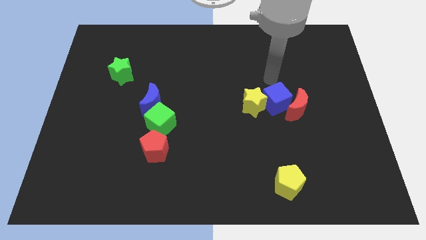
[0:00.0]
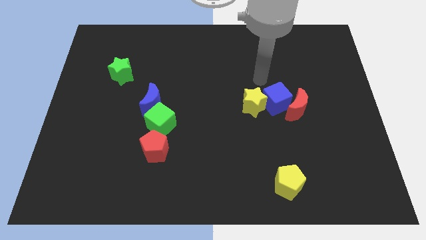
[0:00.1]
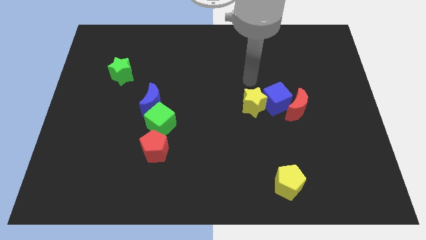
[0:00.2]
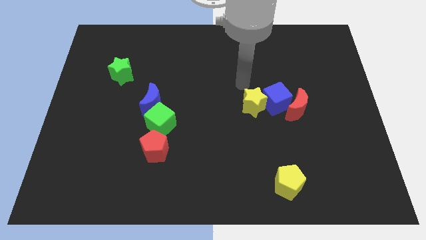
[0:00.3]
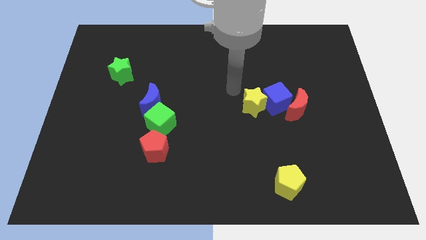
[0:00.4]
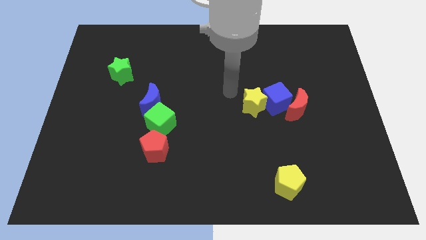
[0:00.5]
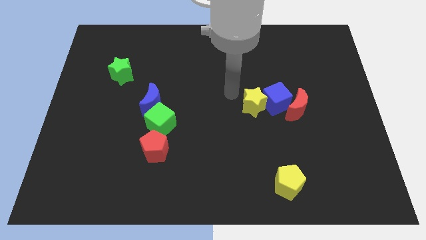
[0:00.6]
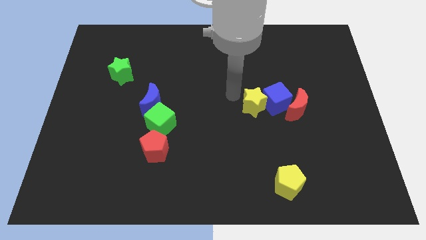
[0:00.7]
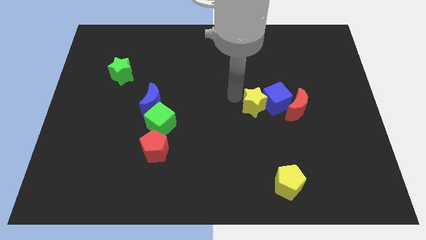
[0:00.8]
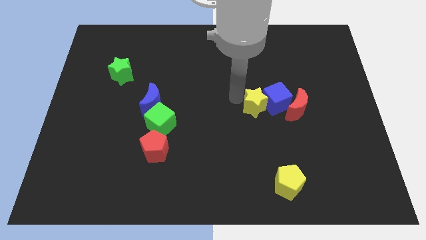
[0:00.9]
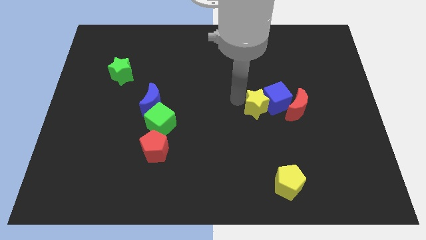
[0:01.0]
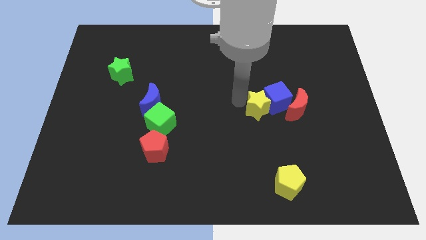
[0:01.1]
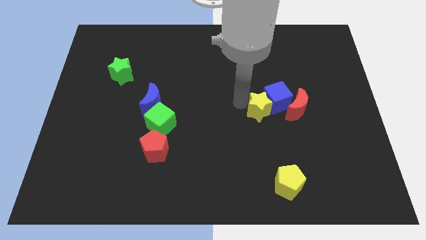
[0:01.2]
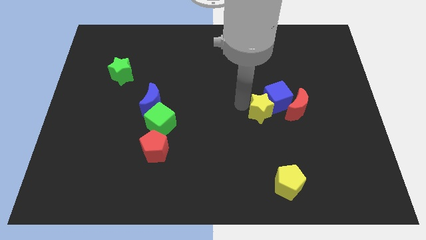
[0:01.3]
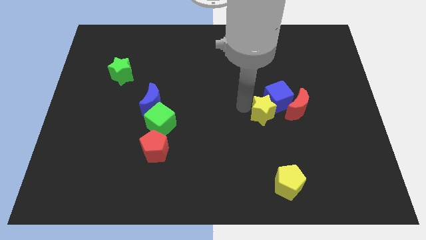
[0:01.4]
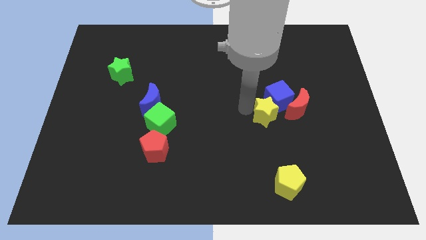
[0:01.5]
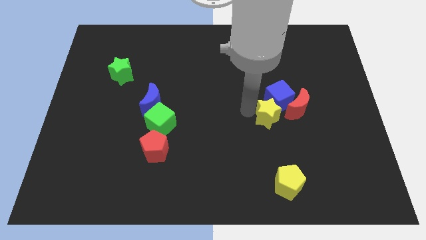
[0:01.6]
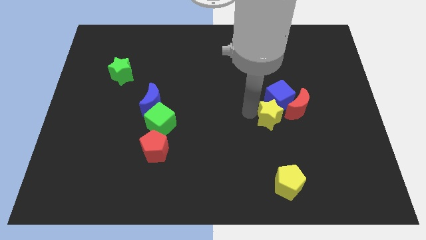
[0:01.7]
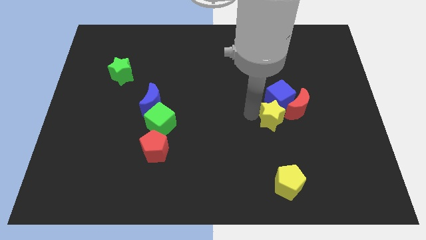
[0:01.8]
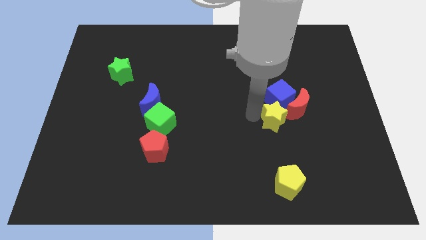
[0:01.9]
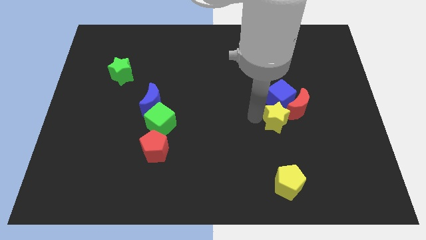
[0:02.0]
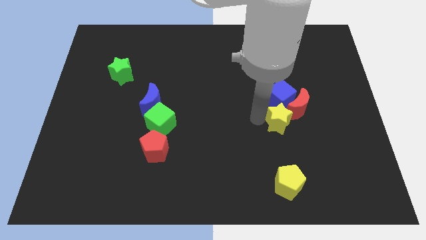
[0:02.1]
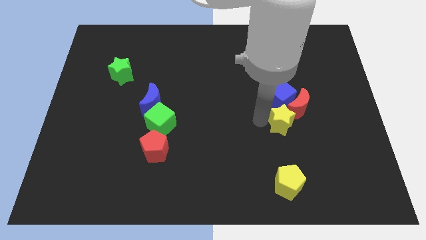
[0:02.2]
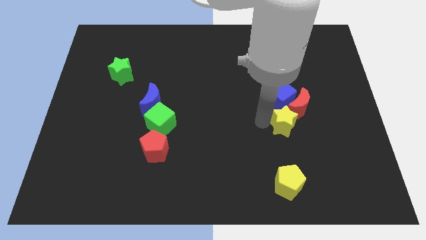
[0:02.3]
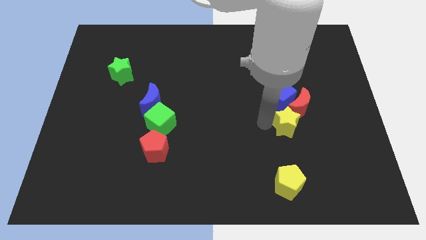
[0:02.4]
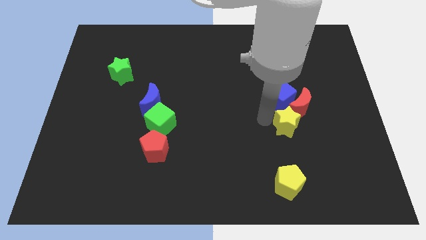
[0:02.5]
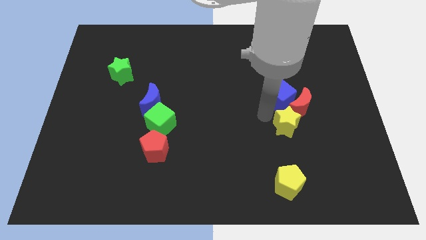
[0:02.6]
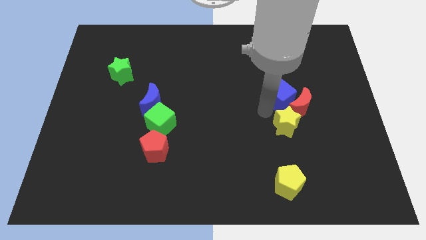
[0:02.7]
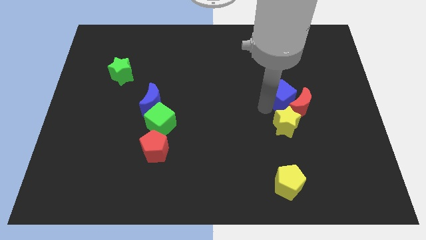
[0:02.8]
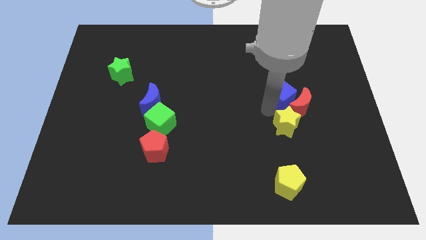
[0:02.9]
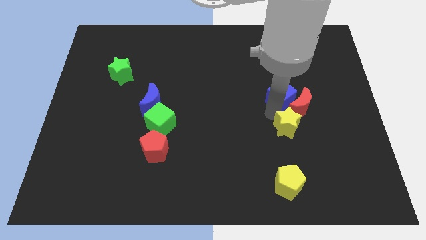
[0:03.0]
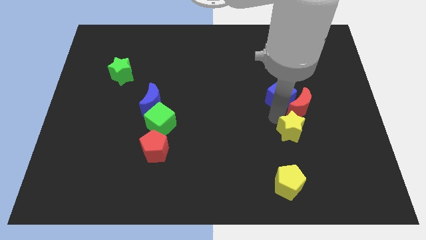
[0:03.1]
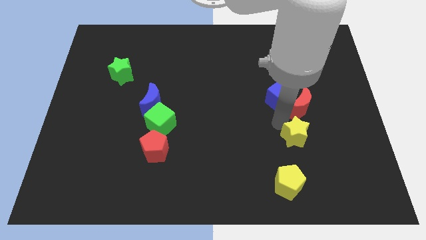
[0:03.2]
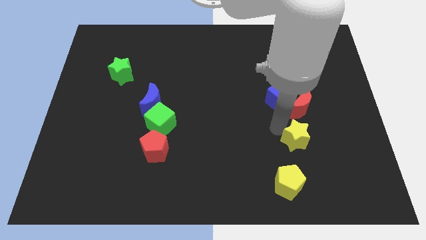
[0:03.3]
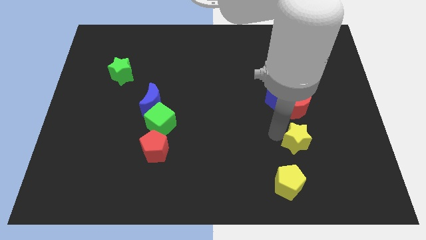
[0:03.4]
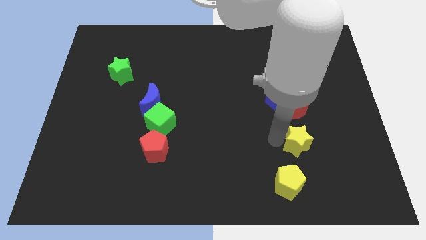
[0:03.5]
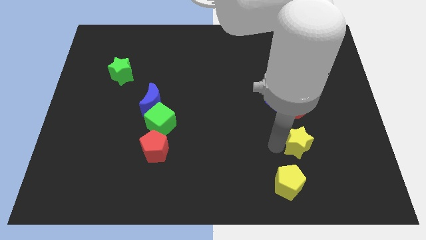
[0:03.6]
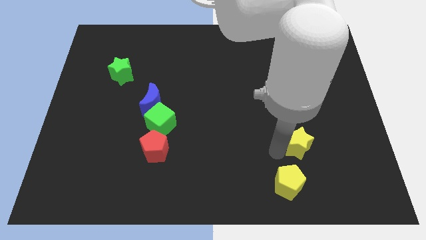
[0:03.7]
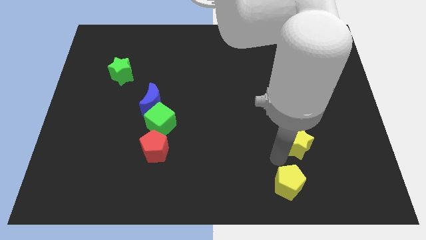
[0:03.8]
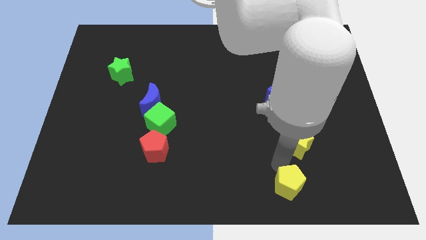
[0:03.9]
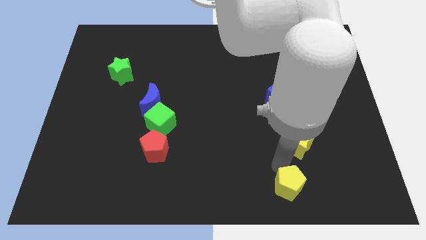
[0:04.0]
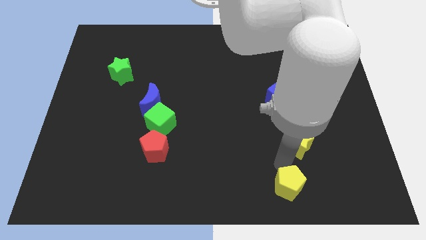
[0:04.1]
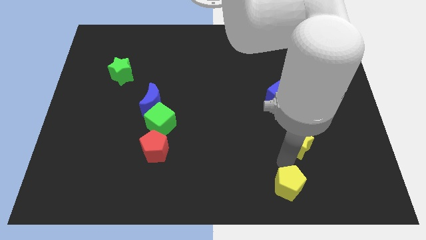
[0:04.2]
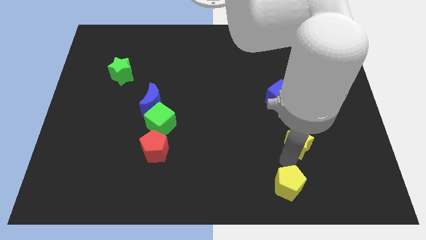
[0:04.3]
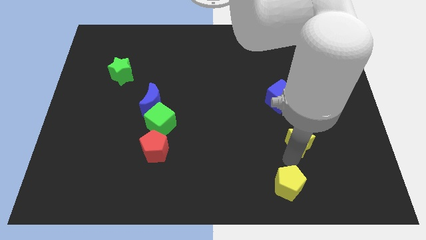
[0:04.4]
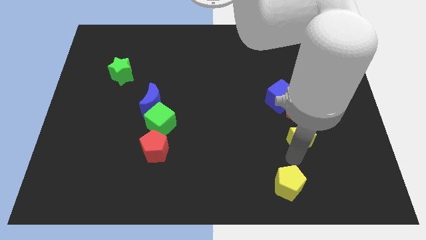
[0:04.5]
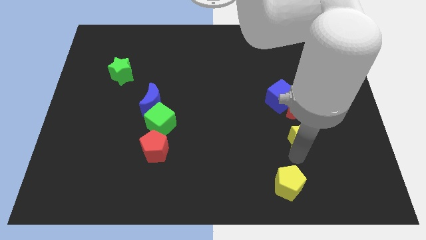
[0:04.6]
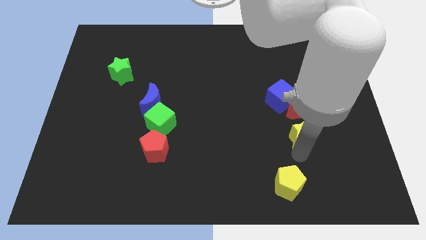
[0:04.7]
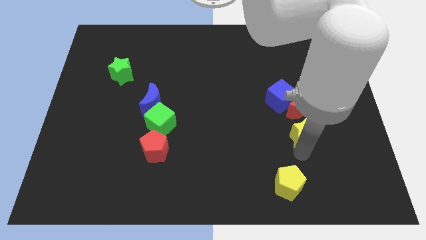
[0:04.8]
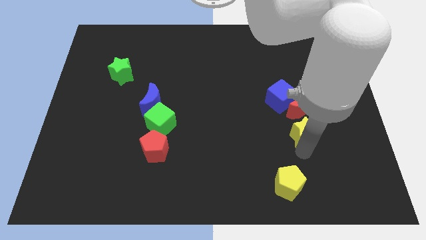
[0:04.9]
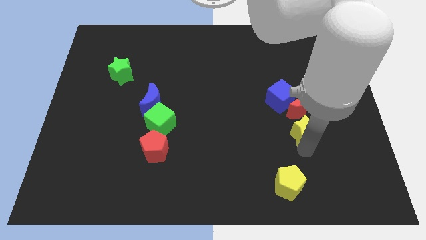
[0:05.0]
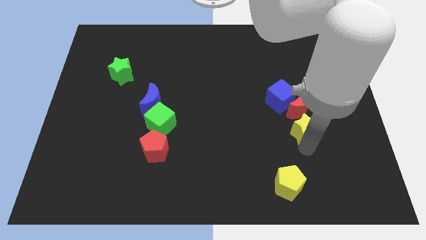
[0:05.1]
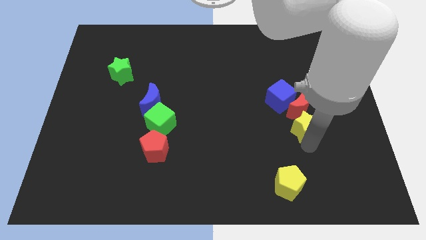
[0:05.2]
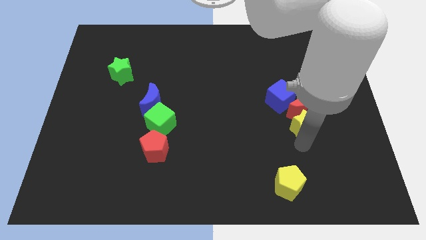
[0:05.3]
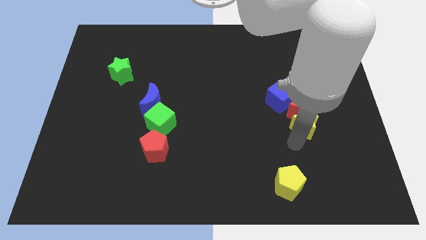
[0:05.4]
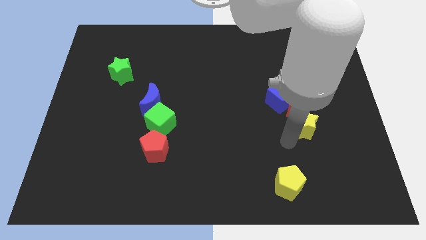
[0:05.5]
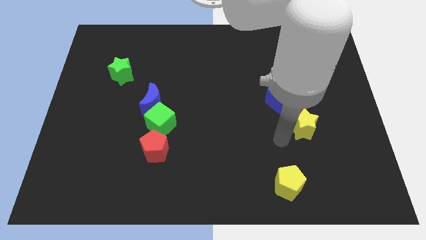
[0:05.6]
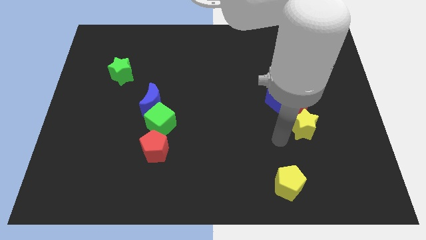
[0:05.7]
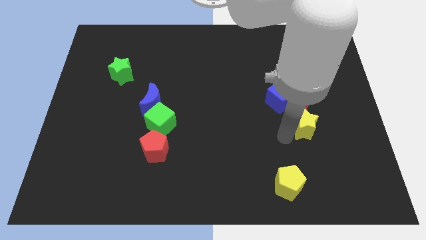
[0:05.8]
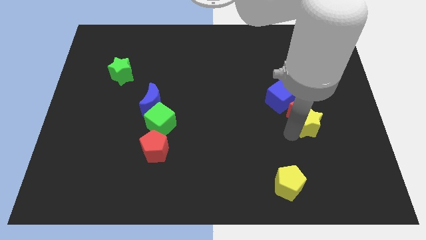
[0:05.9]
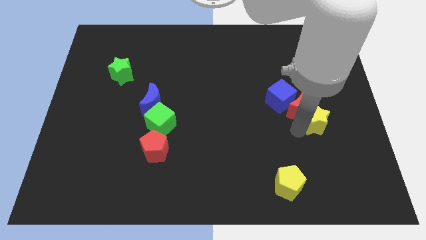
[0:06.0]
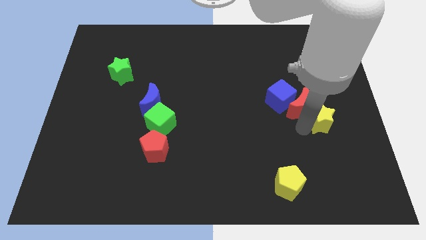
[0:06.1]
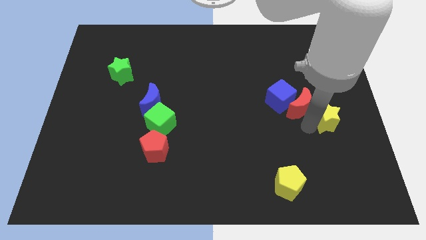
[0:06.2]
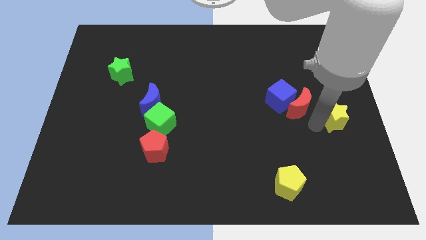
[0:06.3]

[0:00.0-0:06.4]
move the yellow star to the center right

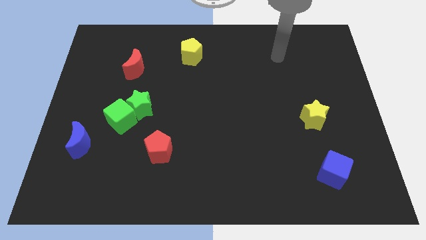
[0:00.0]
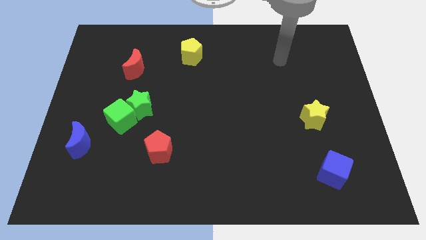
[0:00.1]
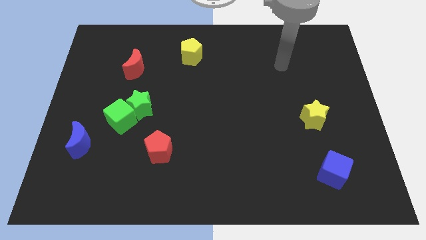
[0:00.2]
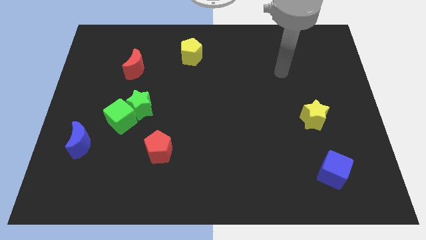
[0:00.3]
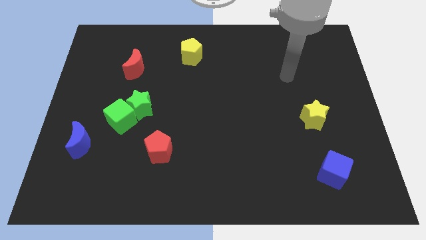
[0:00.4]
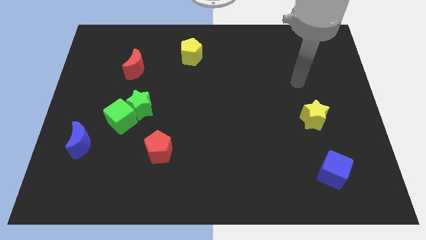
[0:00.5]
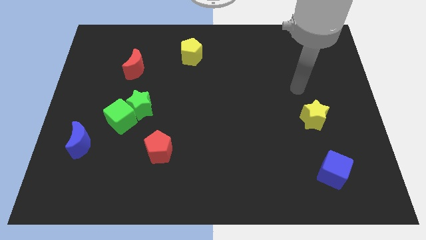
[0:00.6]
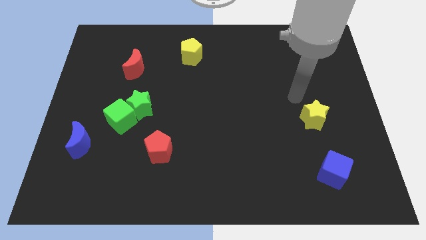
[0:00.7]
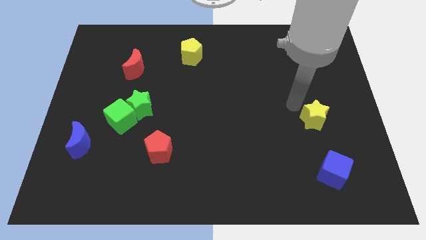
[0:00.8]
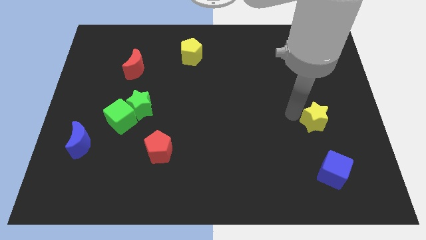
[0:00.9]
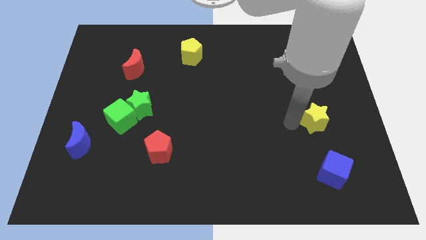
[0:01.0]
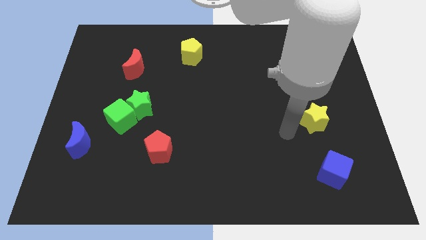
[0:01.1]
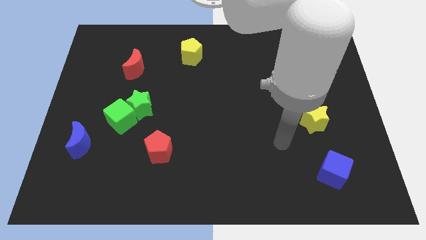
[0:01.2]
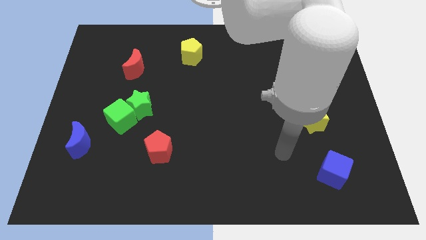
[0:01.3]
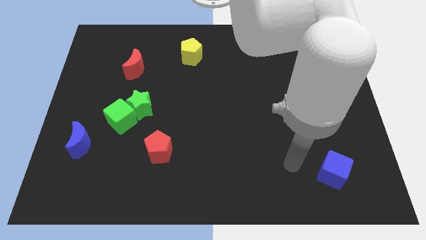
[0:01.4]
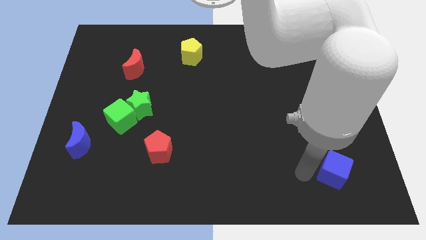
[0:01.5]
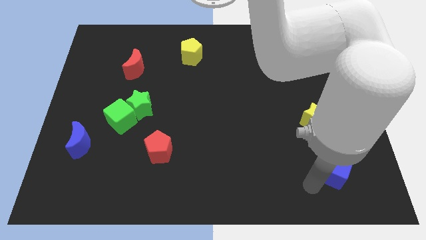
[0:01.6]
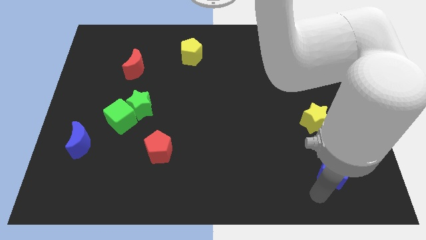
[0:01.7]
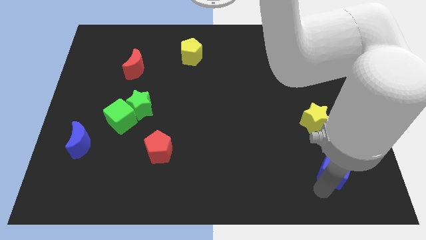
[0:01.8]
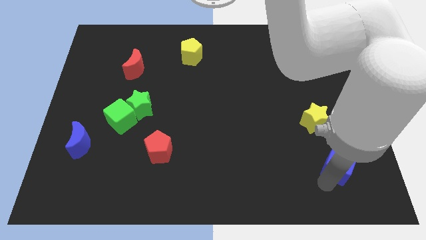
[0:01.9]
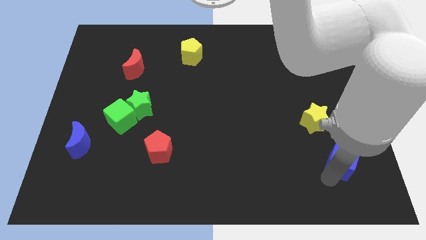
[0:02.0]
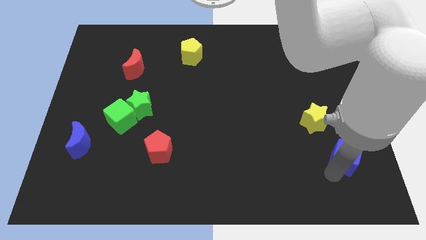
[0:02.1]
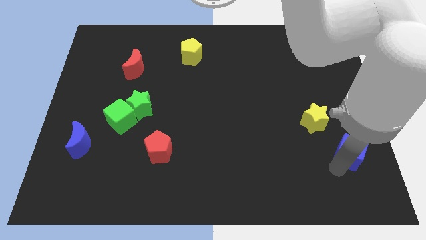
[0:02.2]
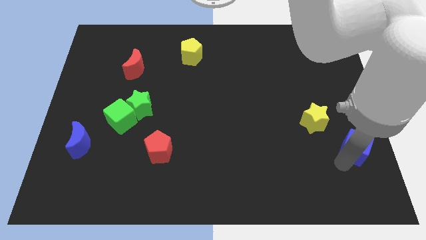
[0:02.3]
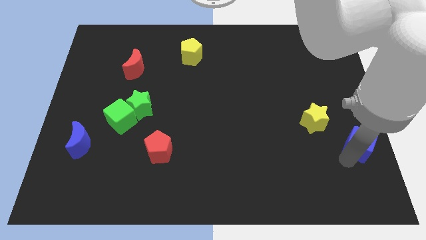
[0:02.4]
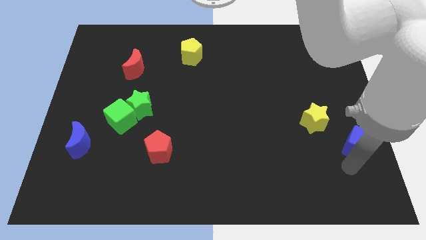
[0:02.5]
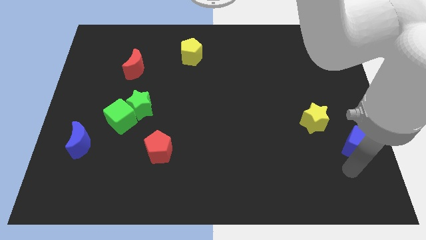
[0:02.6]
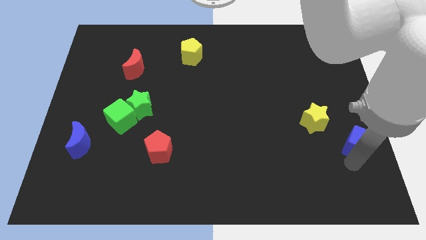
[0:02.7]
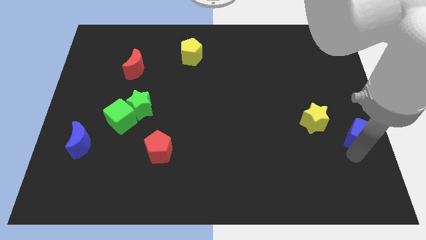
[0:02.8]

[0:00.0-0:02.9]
slide the blue cube to the right side of the board
